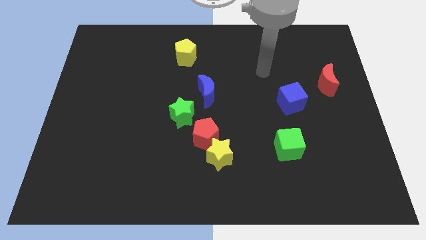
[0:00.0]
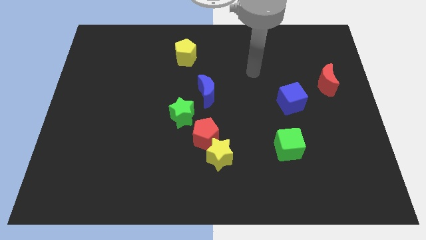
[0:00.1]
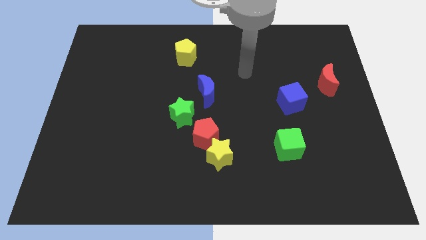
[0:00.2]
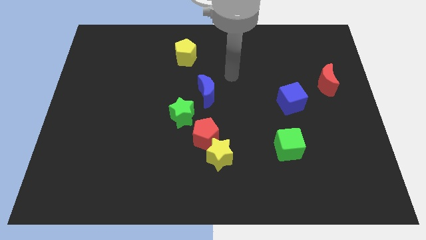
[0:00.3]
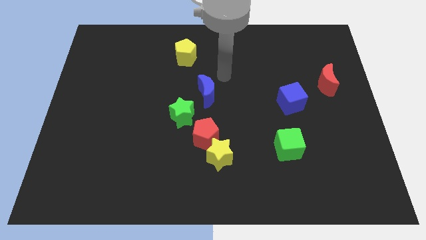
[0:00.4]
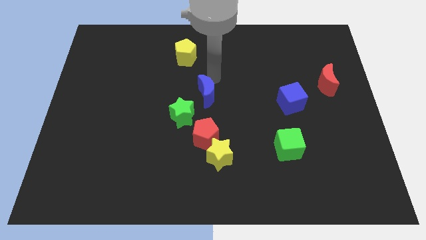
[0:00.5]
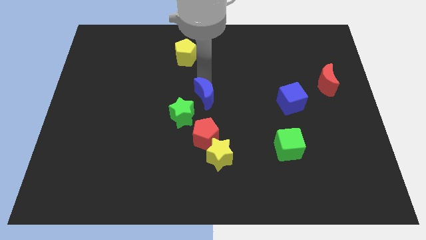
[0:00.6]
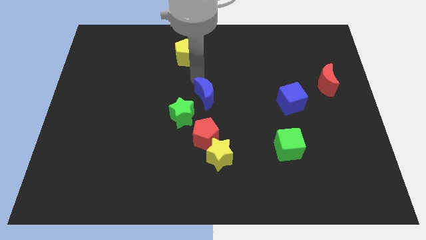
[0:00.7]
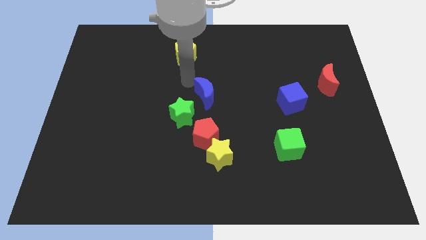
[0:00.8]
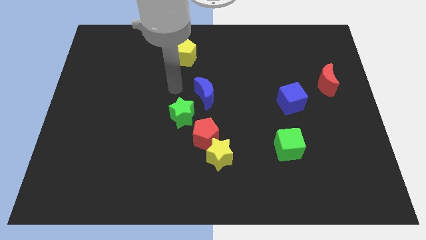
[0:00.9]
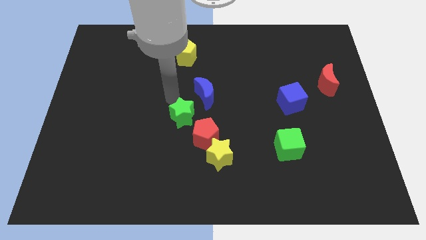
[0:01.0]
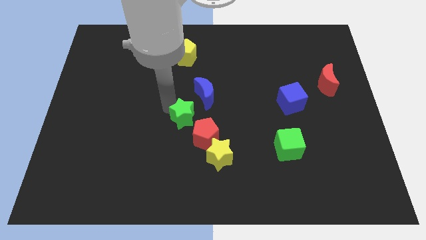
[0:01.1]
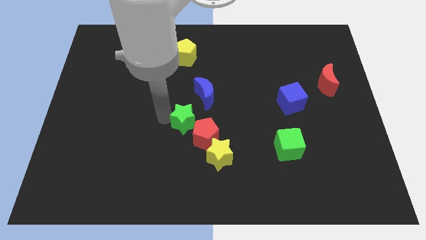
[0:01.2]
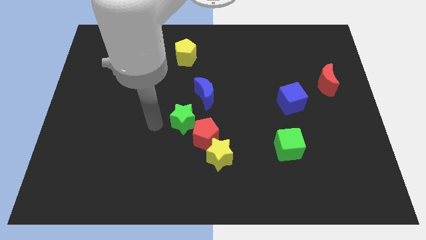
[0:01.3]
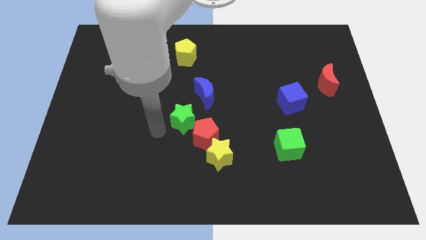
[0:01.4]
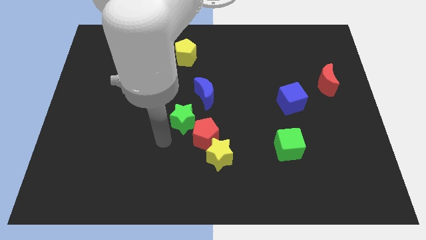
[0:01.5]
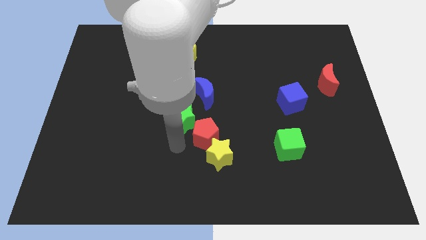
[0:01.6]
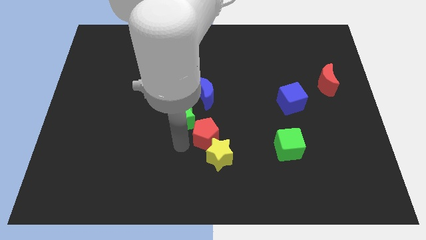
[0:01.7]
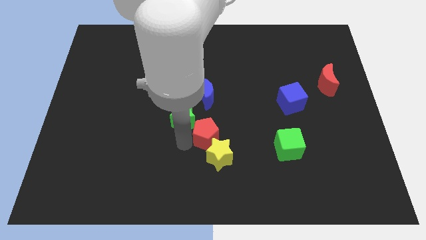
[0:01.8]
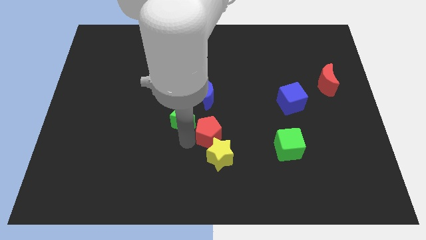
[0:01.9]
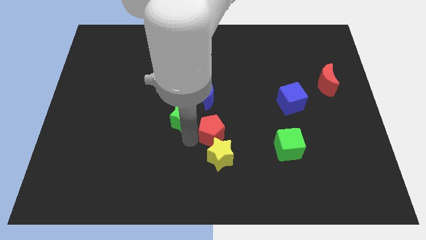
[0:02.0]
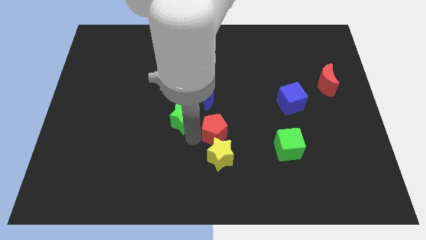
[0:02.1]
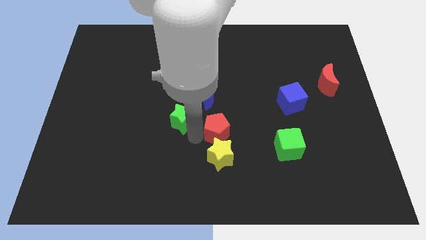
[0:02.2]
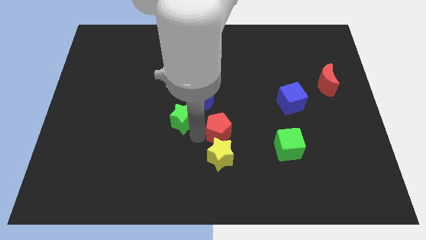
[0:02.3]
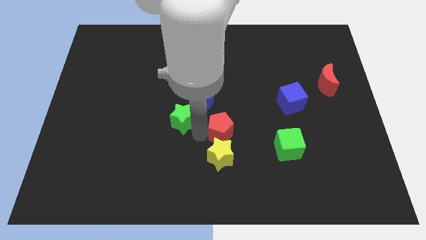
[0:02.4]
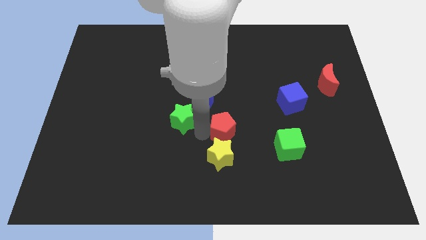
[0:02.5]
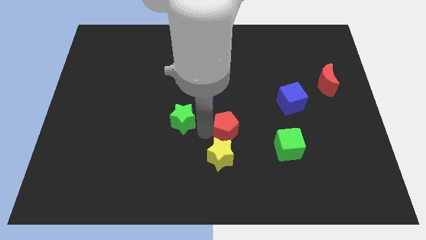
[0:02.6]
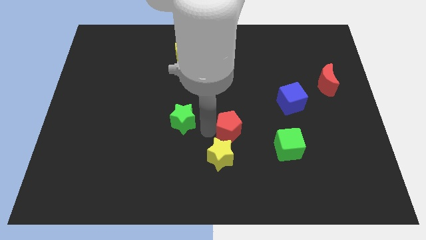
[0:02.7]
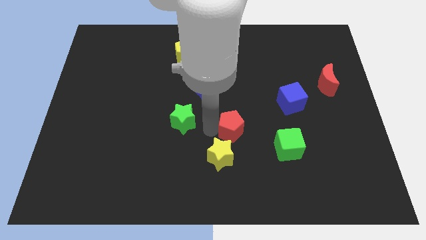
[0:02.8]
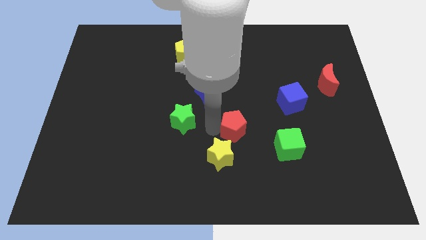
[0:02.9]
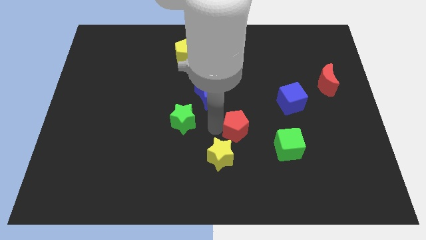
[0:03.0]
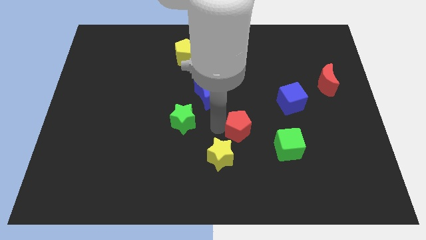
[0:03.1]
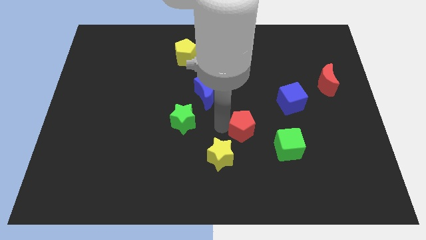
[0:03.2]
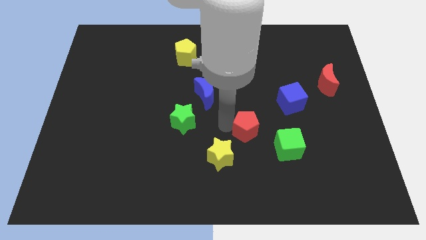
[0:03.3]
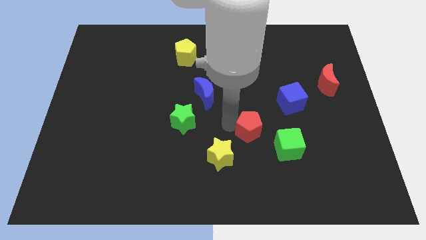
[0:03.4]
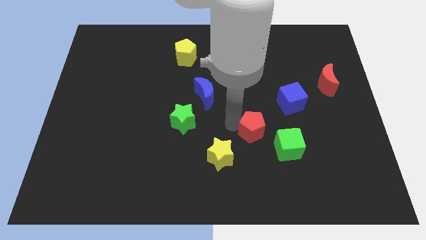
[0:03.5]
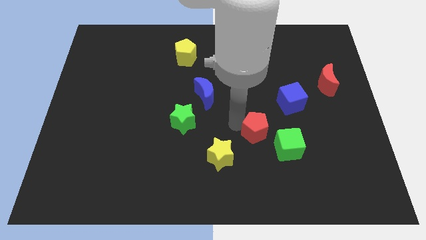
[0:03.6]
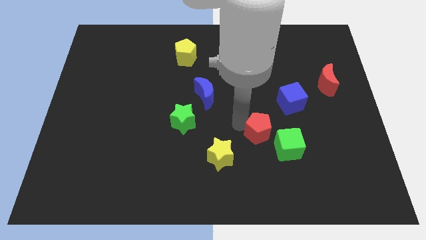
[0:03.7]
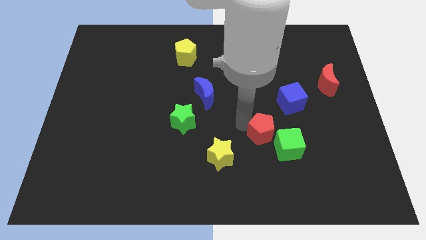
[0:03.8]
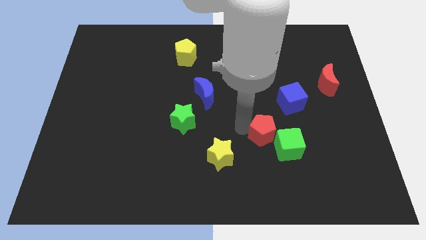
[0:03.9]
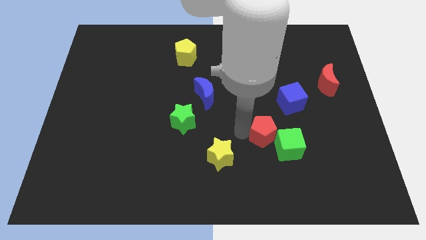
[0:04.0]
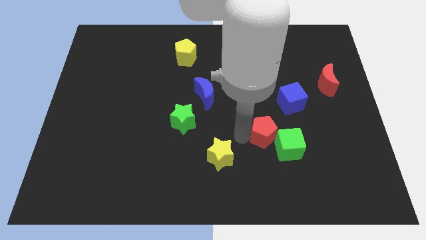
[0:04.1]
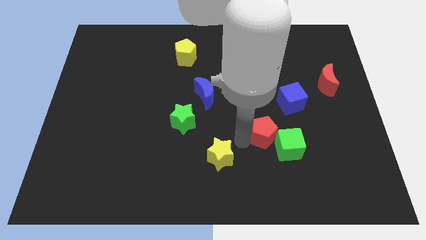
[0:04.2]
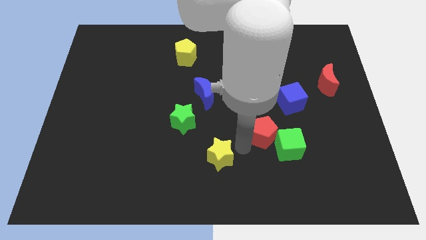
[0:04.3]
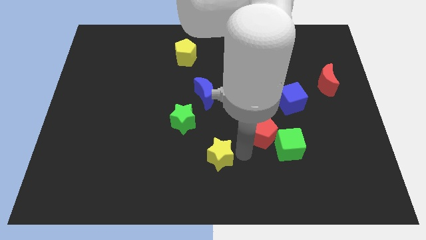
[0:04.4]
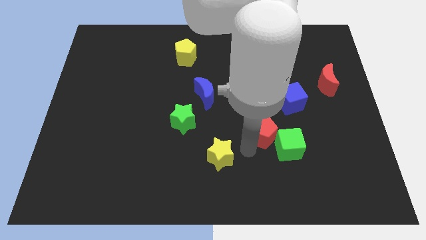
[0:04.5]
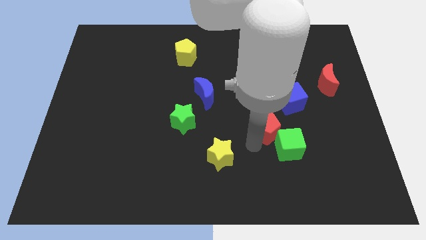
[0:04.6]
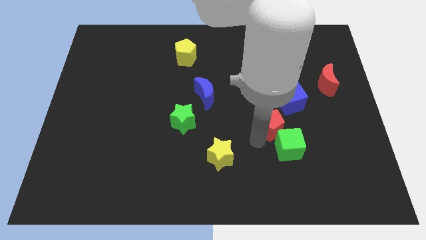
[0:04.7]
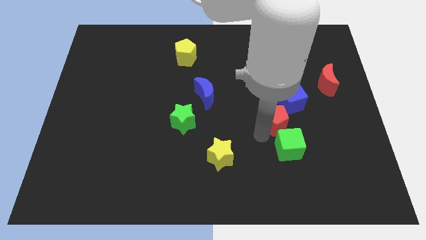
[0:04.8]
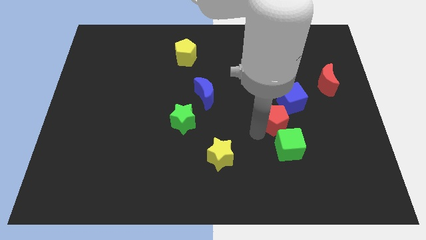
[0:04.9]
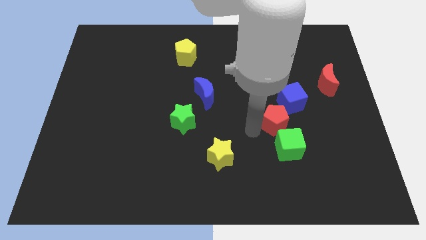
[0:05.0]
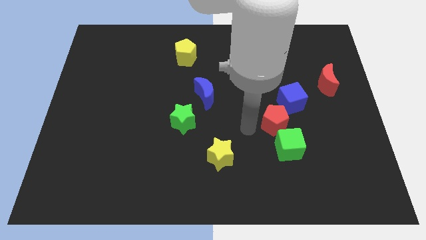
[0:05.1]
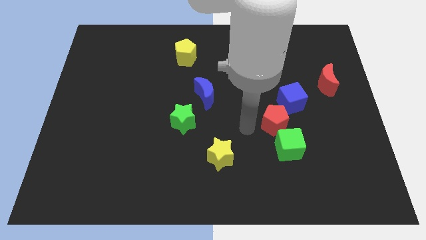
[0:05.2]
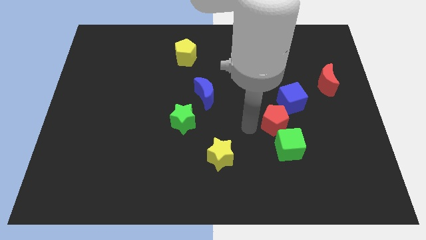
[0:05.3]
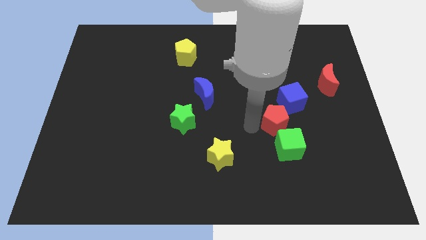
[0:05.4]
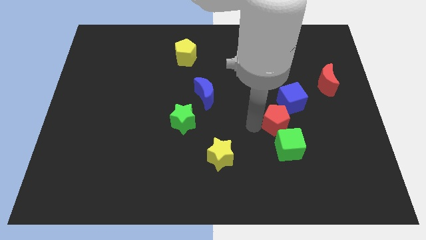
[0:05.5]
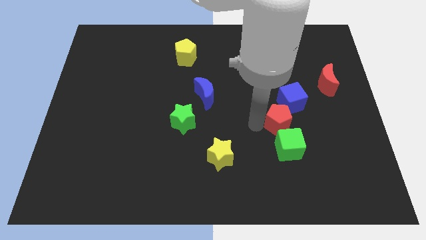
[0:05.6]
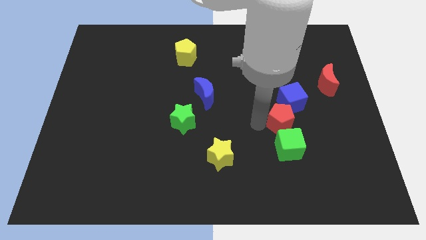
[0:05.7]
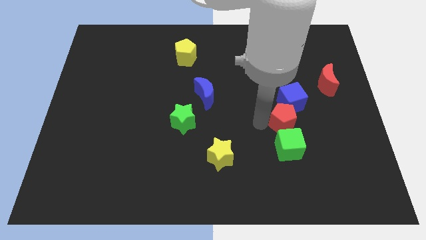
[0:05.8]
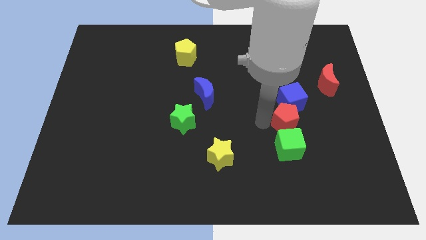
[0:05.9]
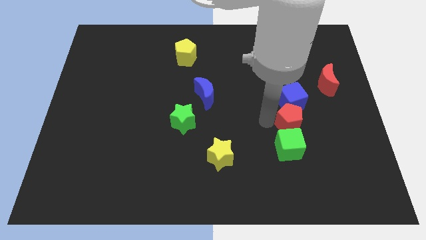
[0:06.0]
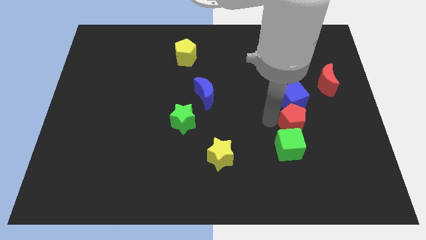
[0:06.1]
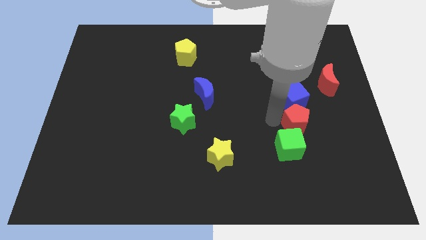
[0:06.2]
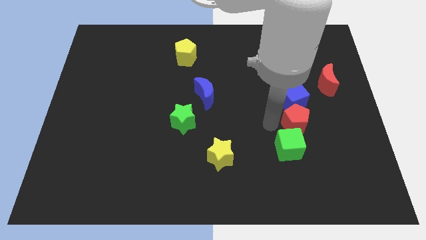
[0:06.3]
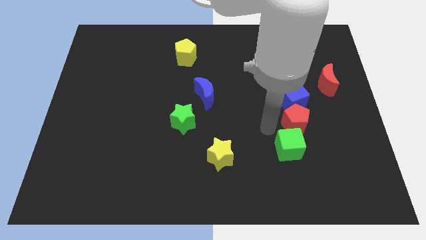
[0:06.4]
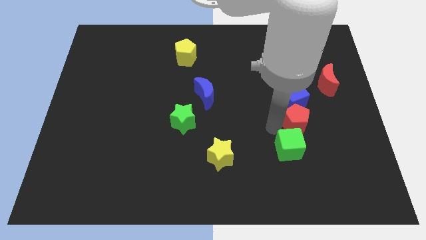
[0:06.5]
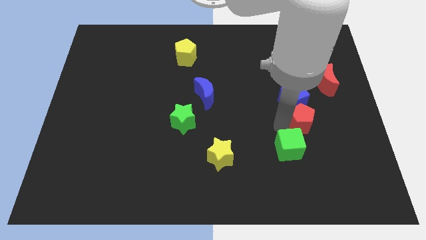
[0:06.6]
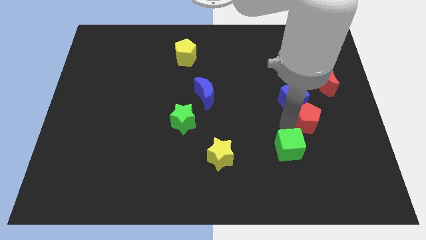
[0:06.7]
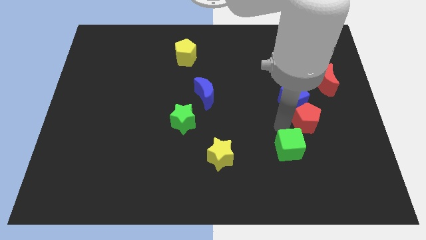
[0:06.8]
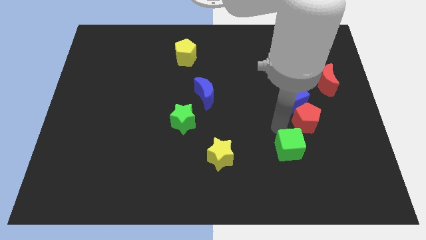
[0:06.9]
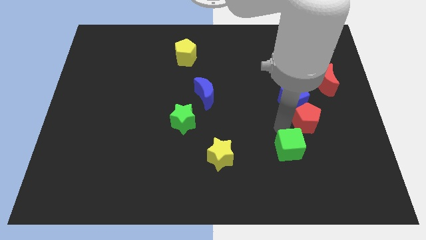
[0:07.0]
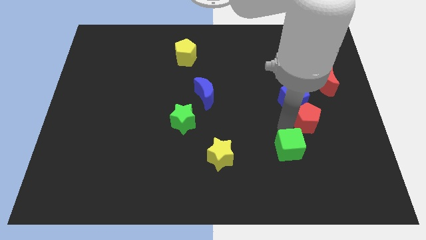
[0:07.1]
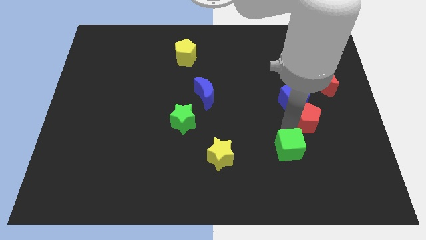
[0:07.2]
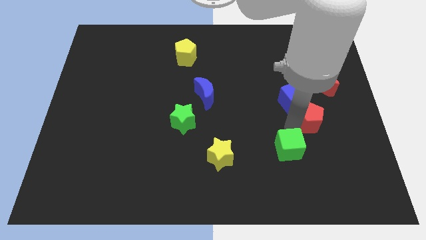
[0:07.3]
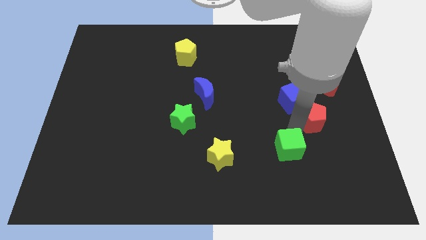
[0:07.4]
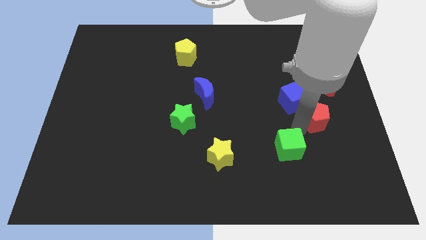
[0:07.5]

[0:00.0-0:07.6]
put the red pentagon below the red moon

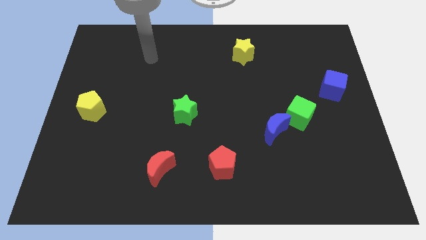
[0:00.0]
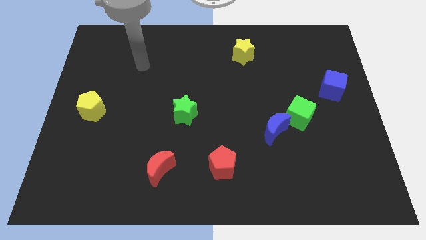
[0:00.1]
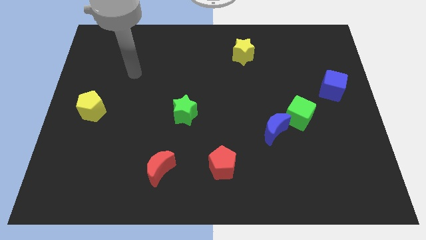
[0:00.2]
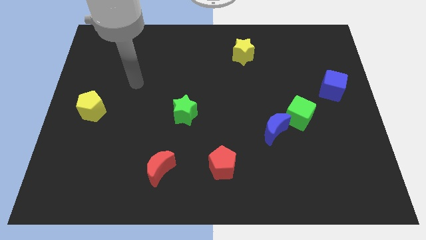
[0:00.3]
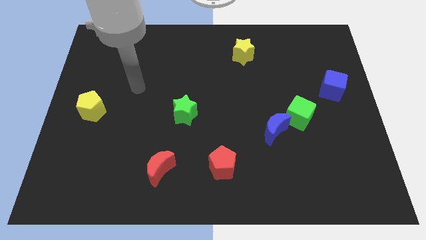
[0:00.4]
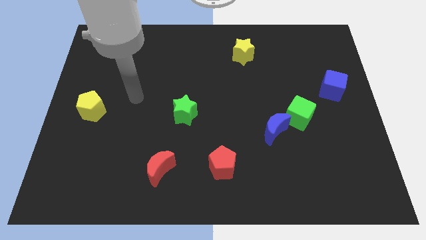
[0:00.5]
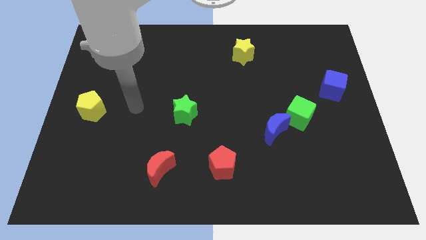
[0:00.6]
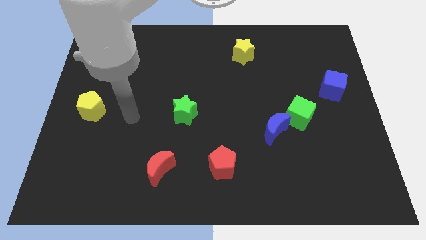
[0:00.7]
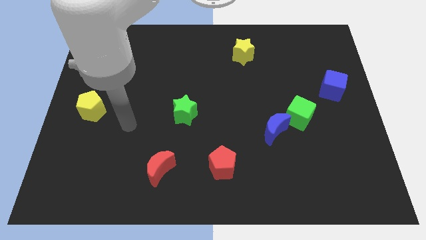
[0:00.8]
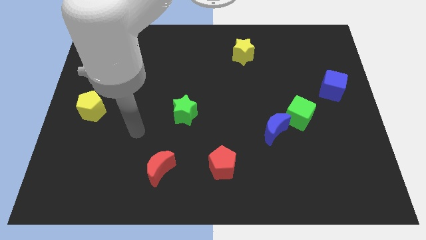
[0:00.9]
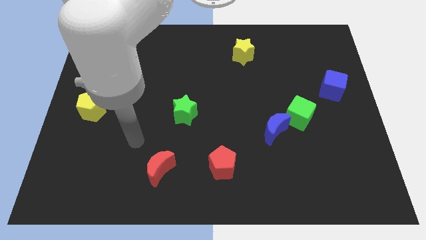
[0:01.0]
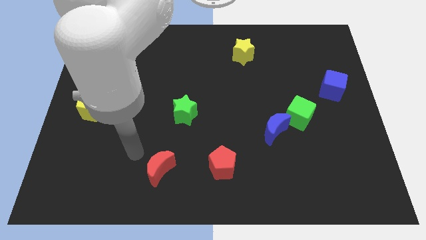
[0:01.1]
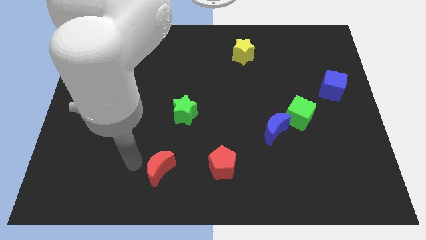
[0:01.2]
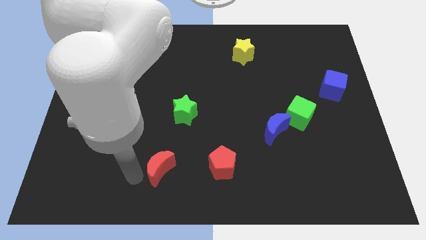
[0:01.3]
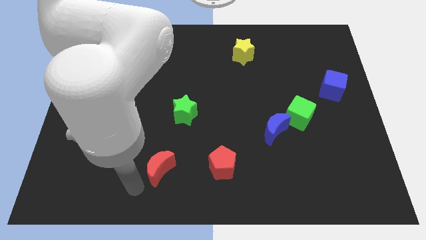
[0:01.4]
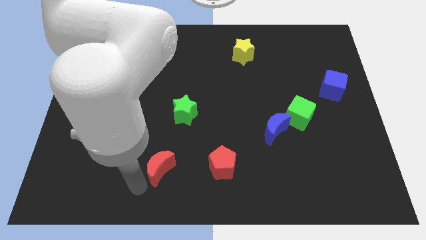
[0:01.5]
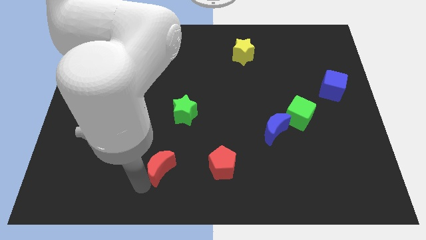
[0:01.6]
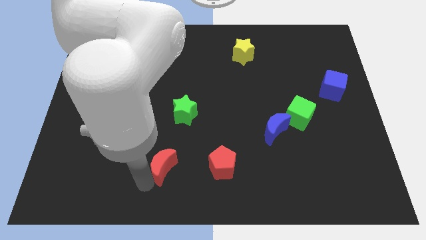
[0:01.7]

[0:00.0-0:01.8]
slide the red moon to the bottom of the green star
